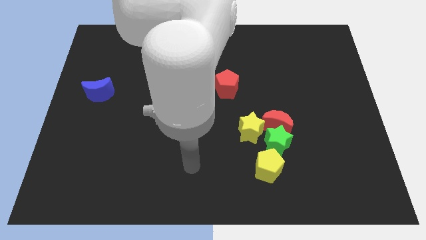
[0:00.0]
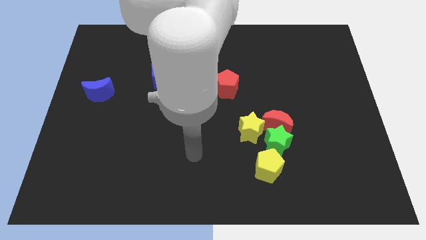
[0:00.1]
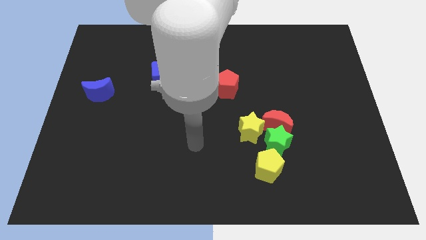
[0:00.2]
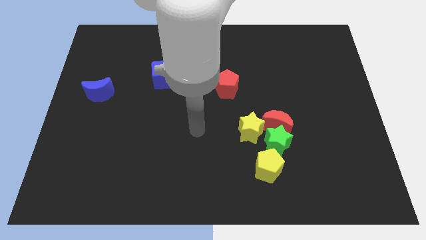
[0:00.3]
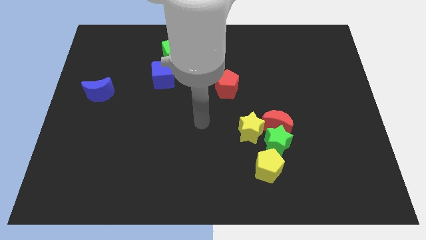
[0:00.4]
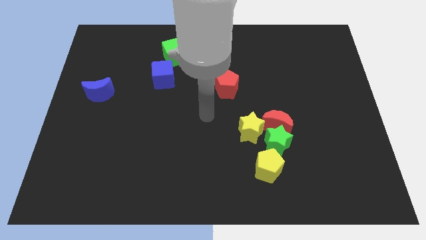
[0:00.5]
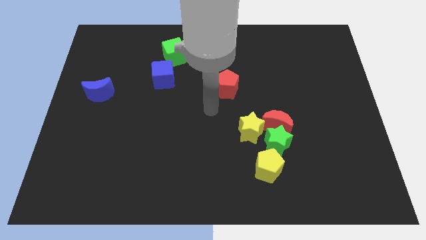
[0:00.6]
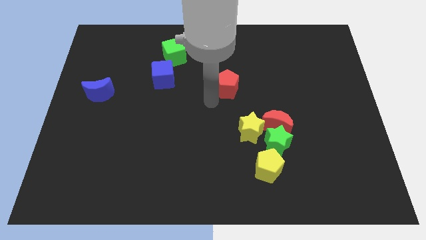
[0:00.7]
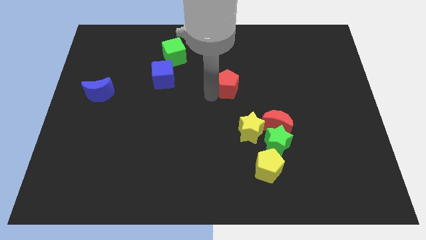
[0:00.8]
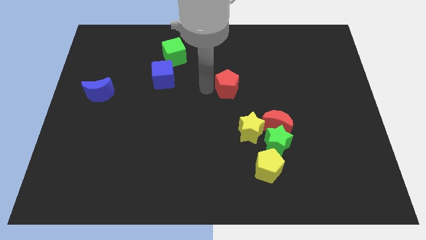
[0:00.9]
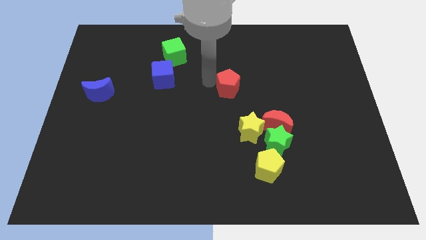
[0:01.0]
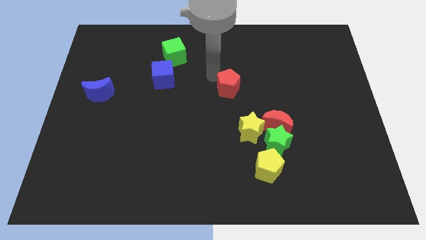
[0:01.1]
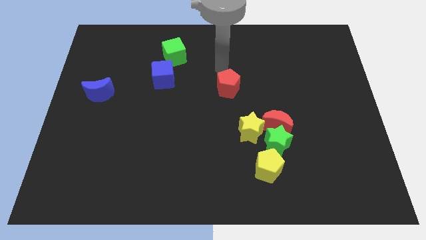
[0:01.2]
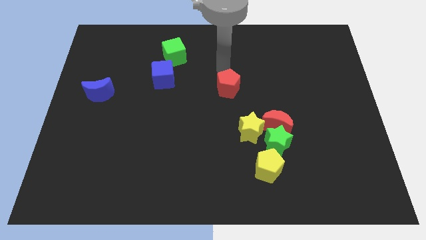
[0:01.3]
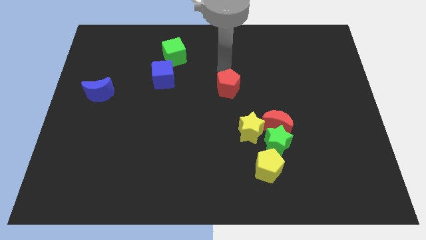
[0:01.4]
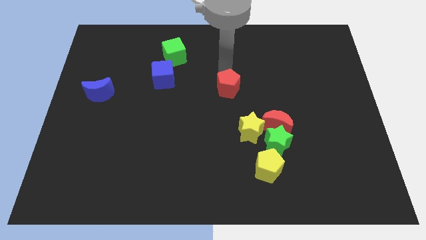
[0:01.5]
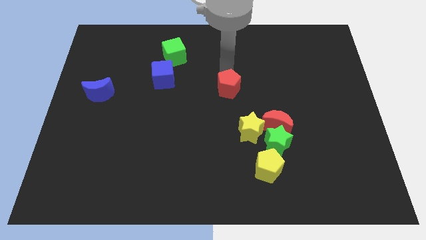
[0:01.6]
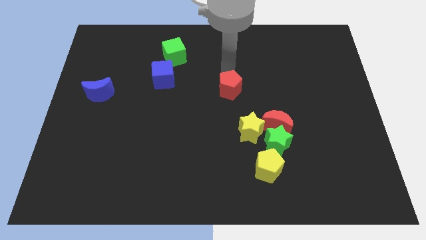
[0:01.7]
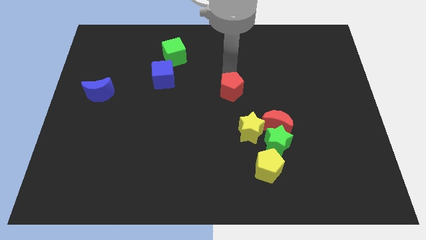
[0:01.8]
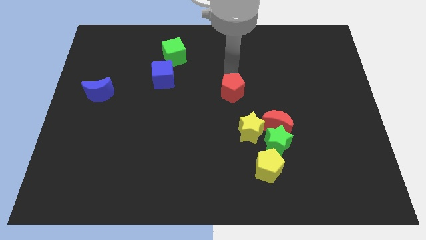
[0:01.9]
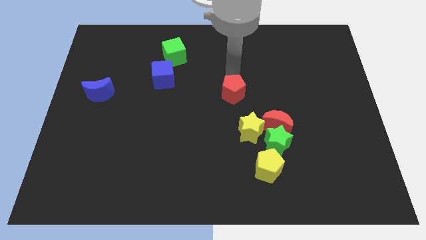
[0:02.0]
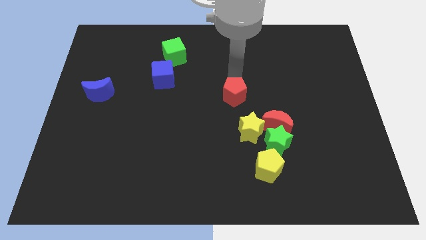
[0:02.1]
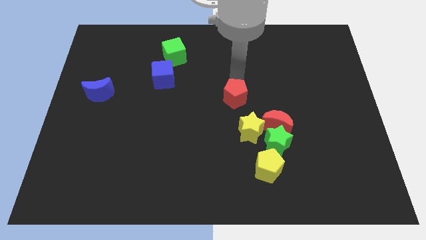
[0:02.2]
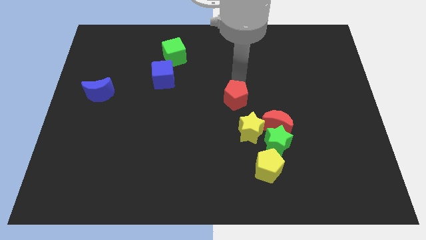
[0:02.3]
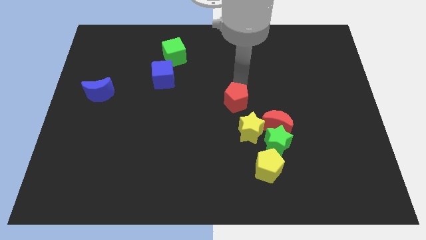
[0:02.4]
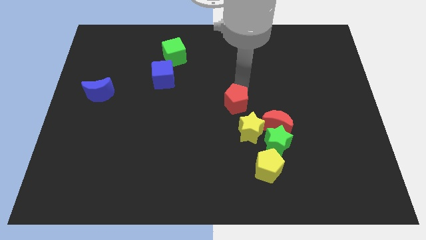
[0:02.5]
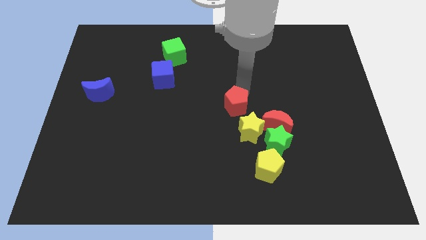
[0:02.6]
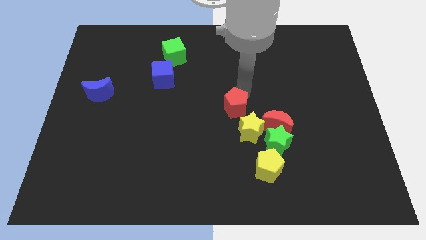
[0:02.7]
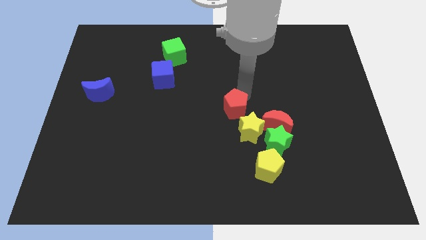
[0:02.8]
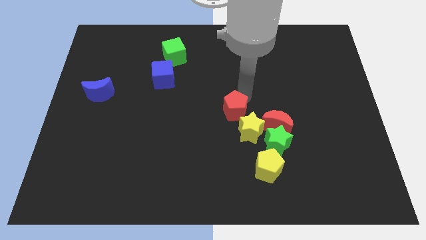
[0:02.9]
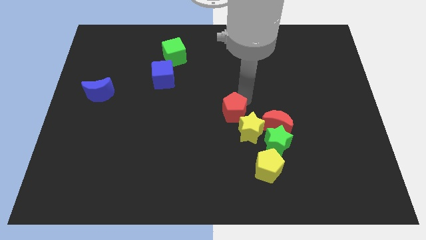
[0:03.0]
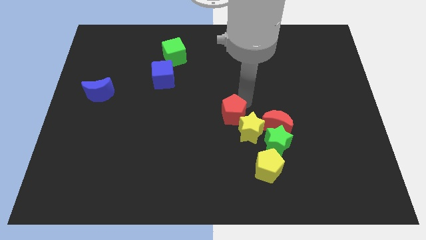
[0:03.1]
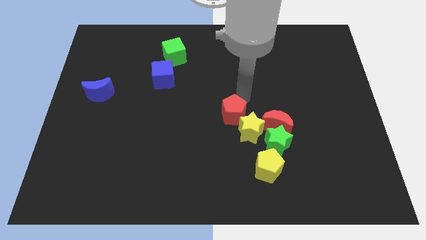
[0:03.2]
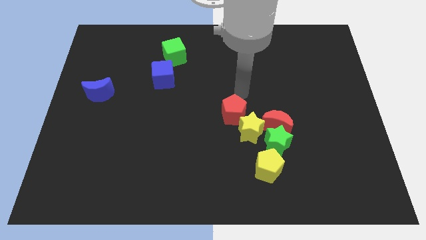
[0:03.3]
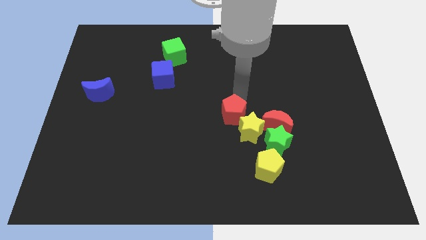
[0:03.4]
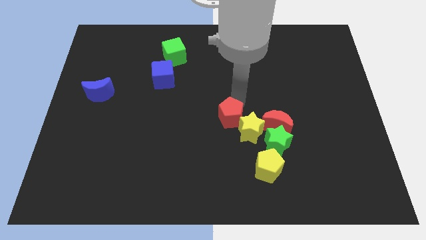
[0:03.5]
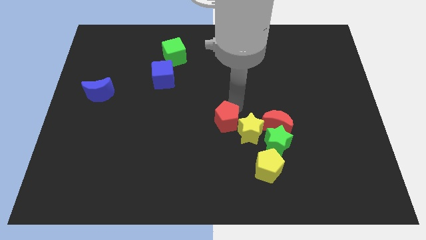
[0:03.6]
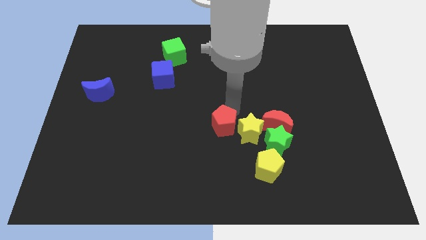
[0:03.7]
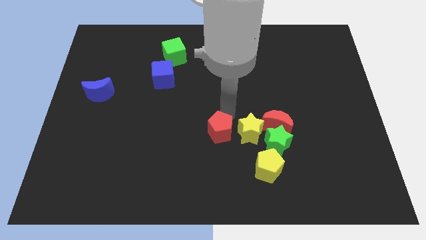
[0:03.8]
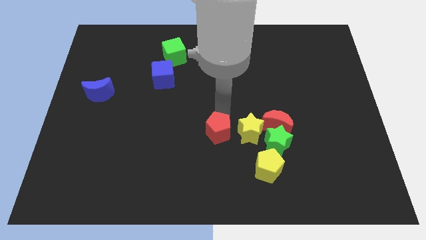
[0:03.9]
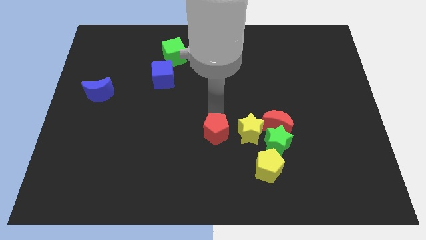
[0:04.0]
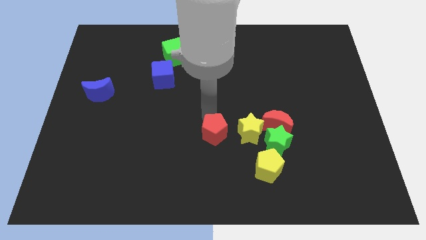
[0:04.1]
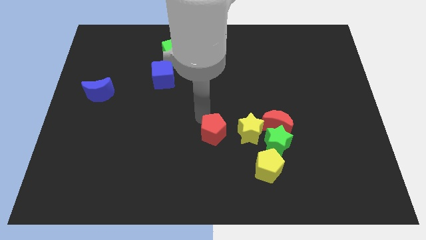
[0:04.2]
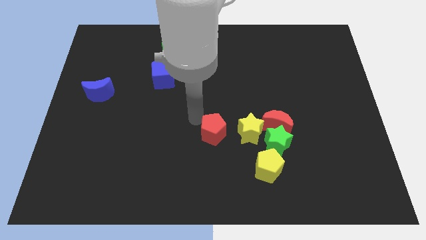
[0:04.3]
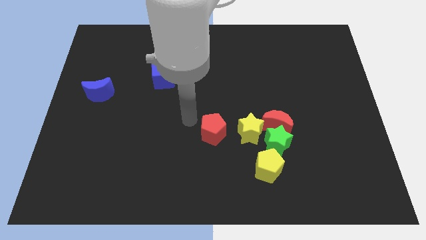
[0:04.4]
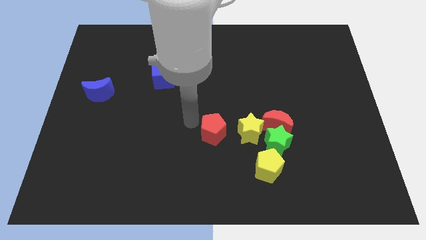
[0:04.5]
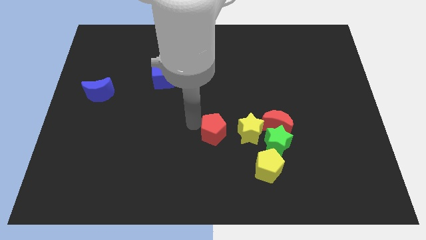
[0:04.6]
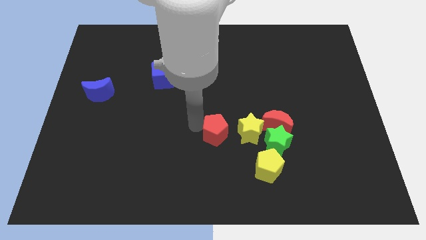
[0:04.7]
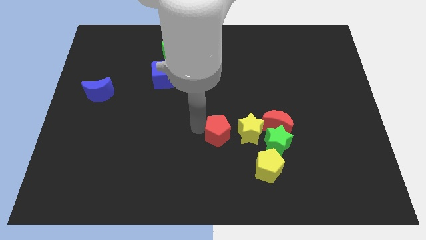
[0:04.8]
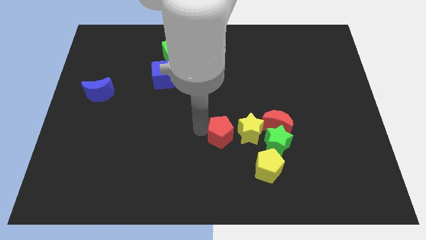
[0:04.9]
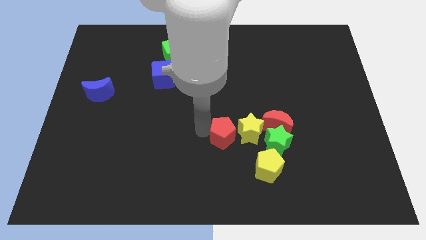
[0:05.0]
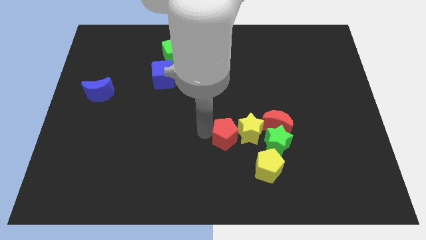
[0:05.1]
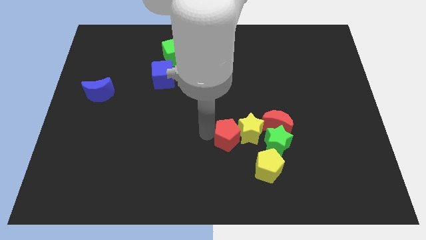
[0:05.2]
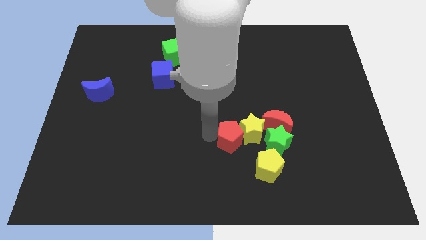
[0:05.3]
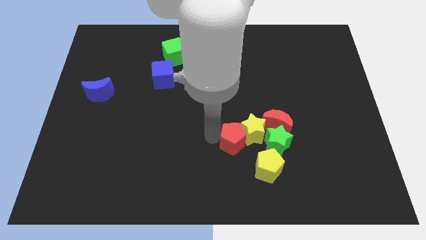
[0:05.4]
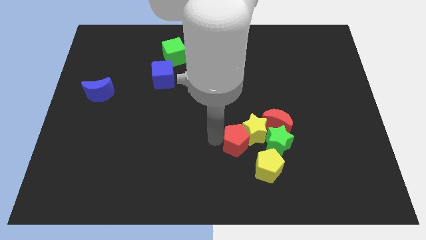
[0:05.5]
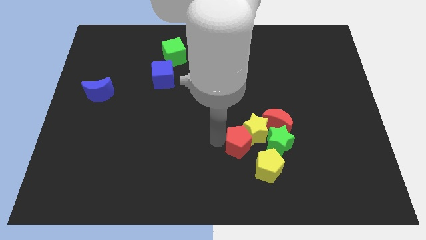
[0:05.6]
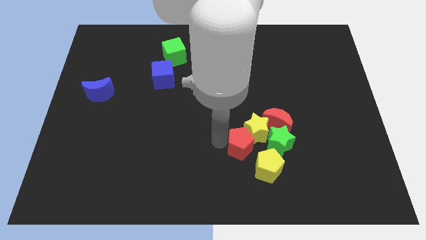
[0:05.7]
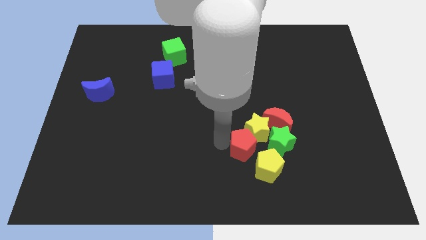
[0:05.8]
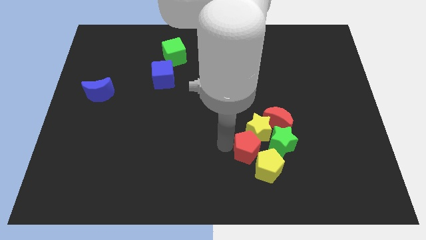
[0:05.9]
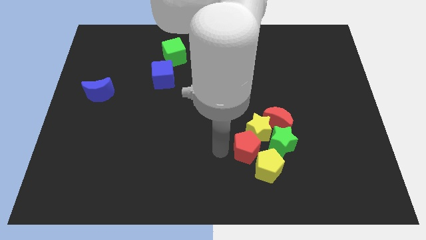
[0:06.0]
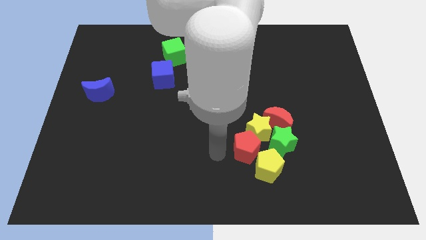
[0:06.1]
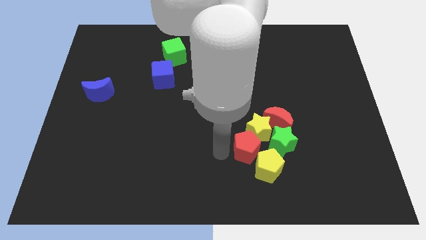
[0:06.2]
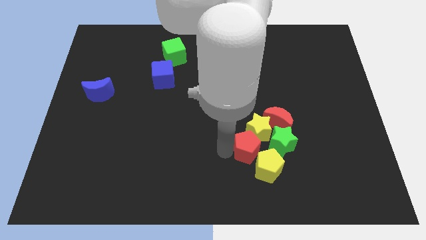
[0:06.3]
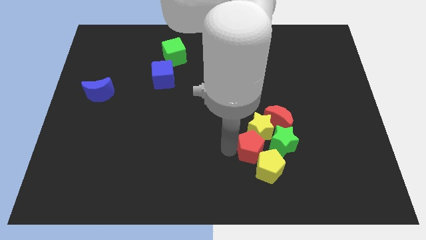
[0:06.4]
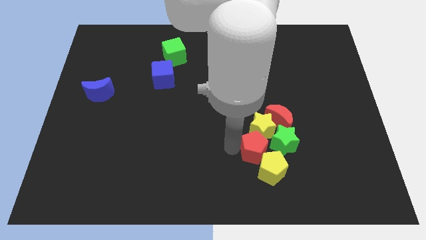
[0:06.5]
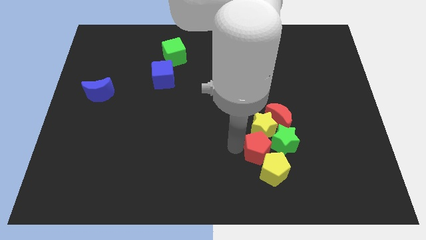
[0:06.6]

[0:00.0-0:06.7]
slide the red pentagon next to the green star

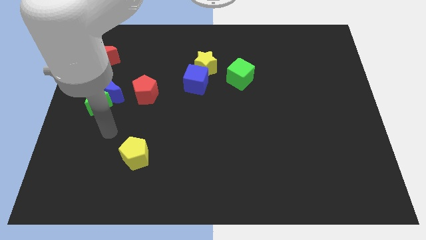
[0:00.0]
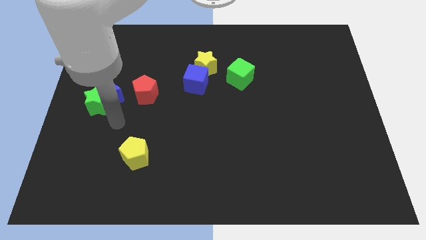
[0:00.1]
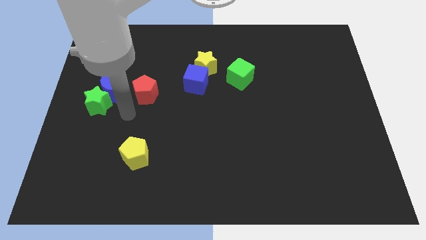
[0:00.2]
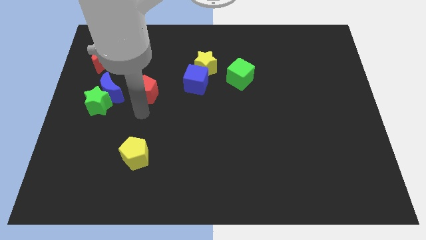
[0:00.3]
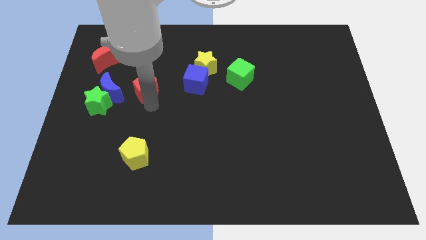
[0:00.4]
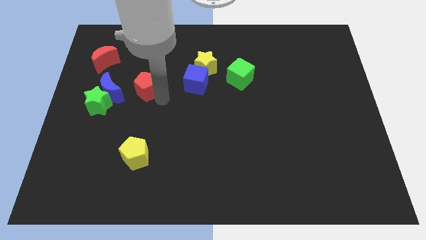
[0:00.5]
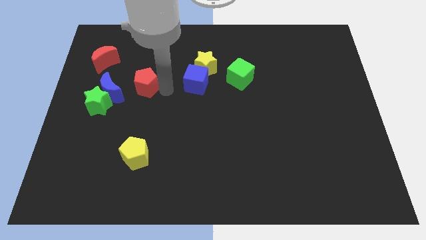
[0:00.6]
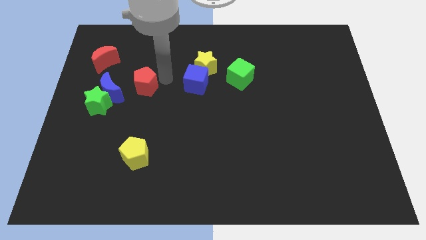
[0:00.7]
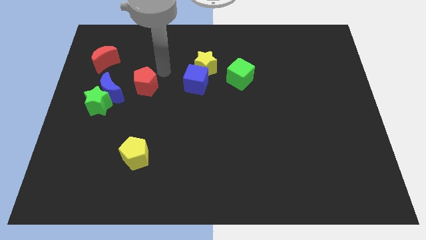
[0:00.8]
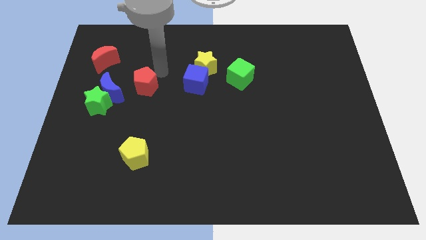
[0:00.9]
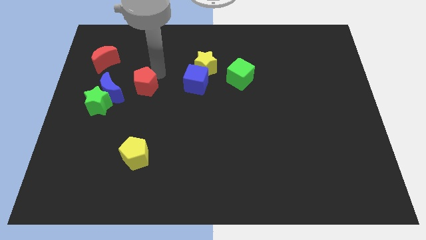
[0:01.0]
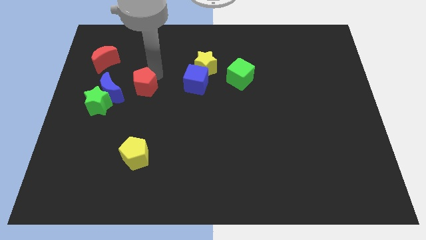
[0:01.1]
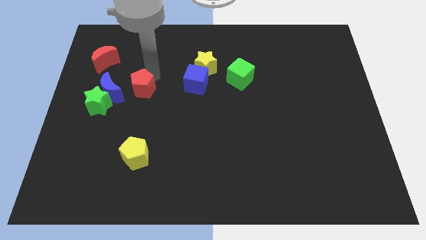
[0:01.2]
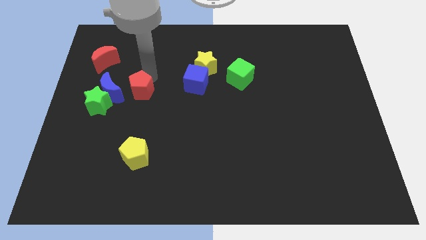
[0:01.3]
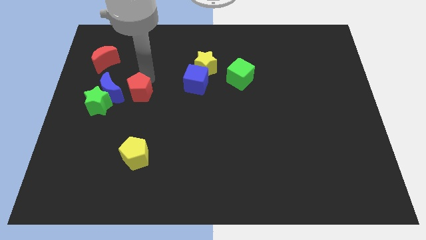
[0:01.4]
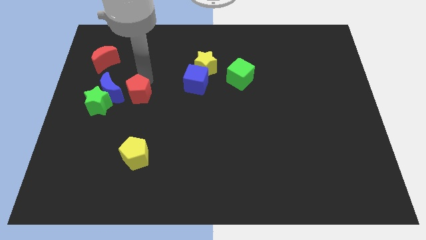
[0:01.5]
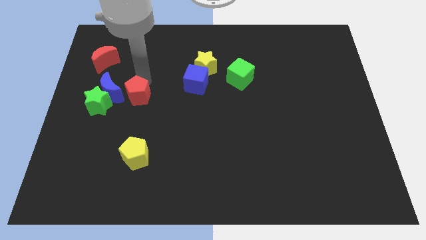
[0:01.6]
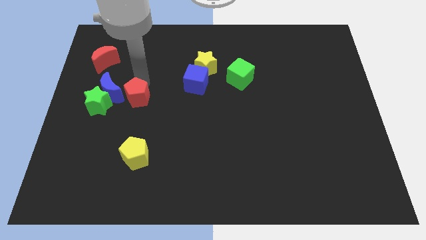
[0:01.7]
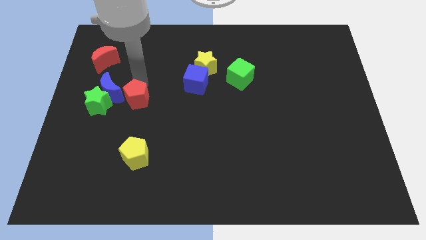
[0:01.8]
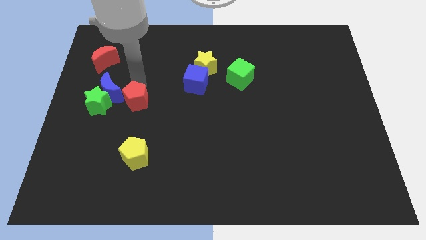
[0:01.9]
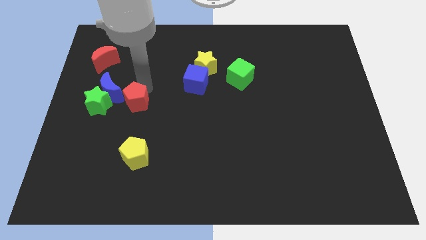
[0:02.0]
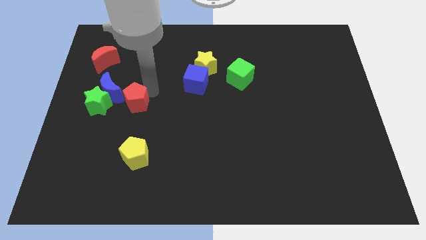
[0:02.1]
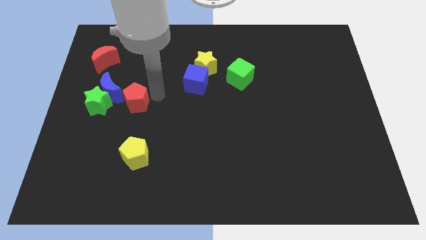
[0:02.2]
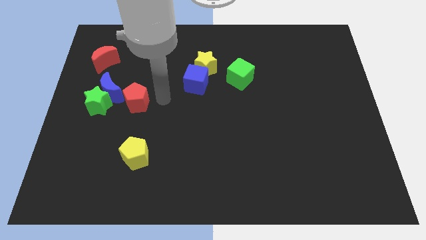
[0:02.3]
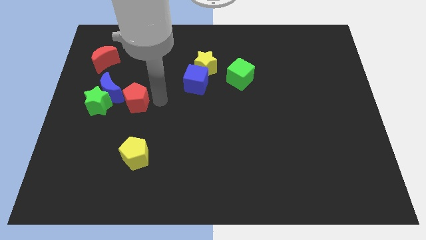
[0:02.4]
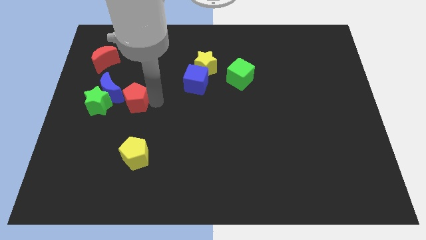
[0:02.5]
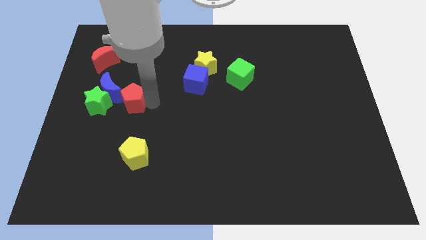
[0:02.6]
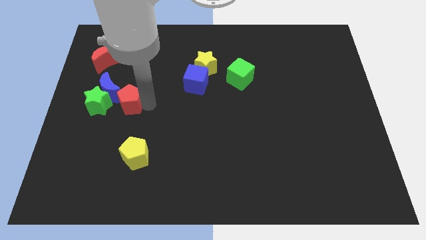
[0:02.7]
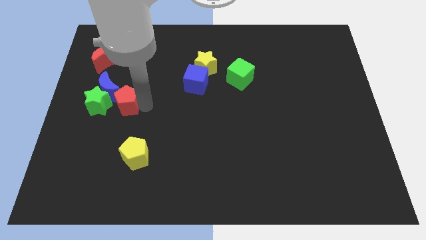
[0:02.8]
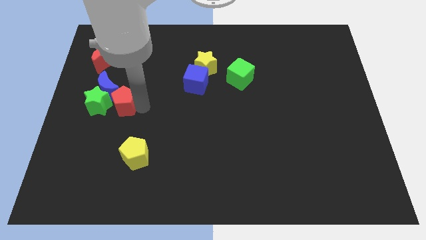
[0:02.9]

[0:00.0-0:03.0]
move the red pentagon next to the green star
